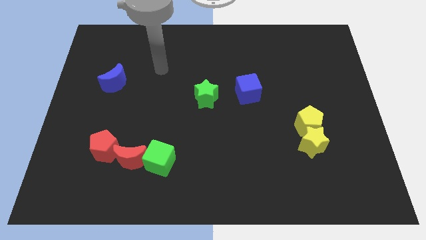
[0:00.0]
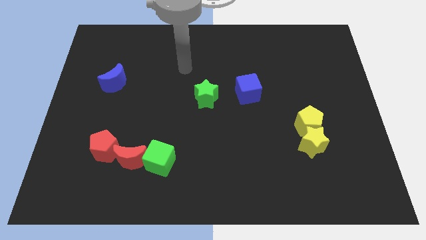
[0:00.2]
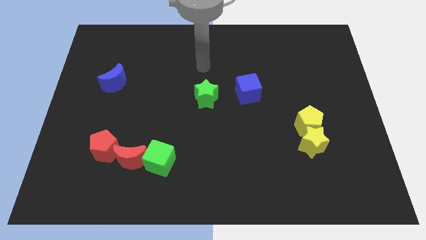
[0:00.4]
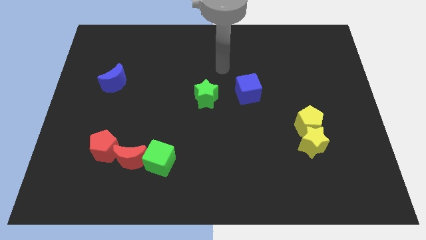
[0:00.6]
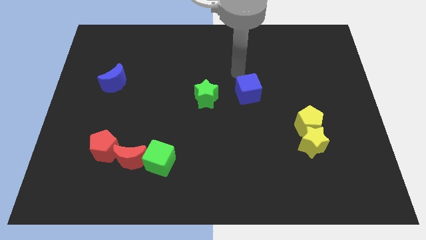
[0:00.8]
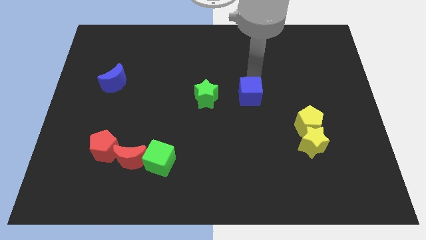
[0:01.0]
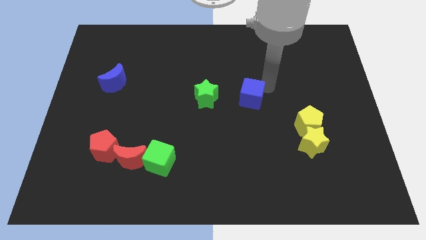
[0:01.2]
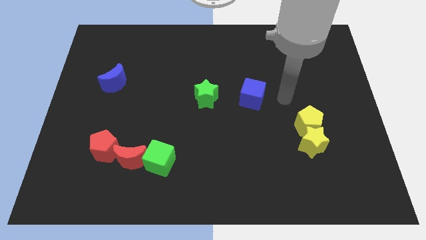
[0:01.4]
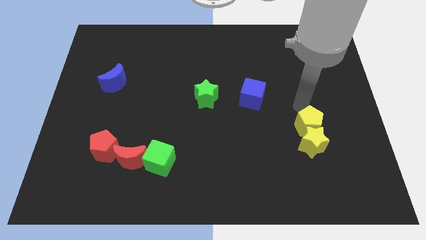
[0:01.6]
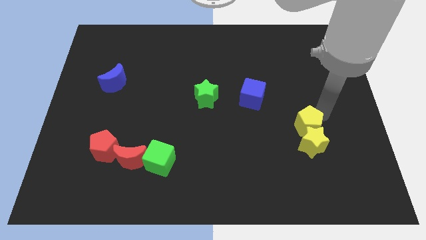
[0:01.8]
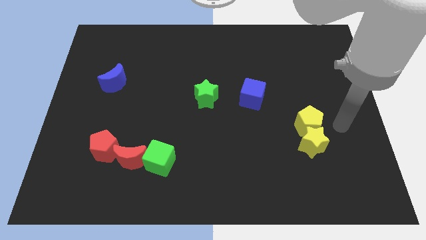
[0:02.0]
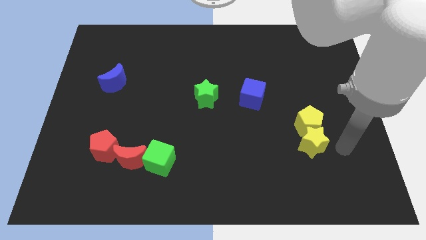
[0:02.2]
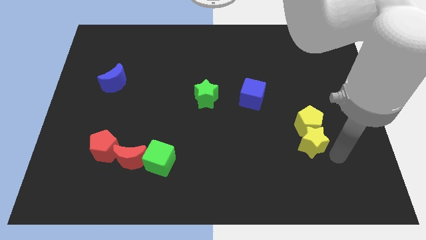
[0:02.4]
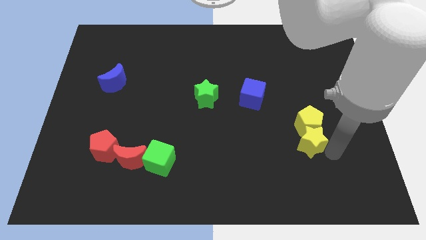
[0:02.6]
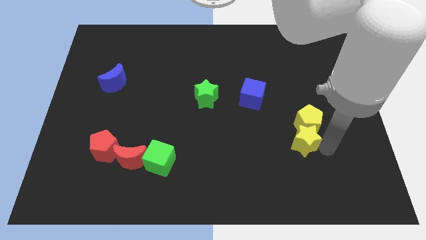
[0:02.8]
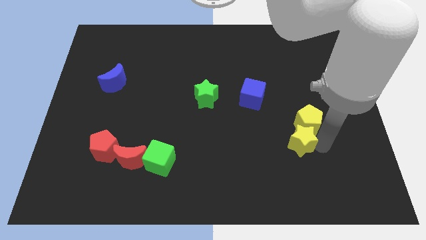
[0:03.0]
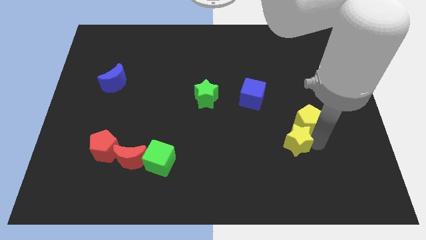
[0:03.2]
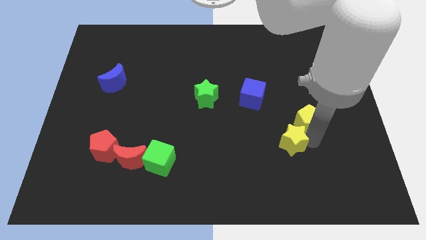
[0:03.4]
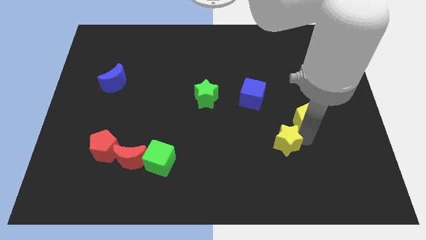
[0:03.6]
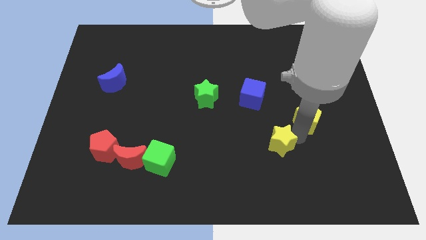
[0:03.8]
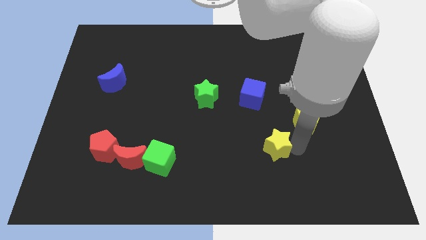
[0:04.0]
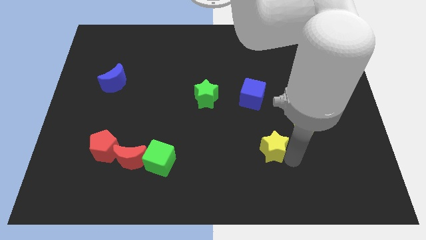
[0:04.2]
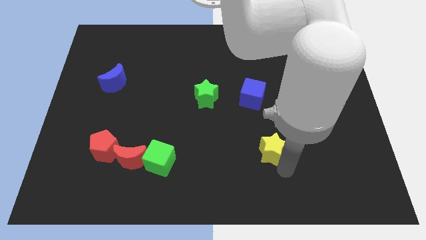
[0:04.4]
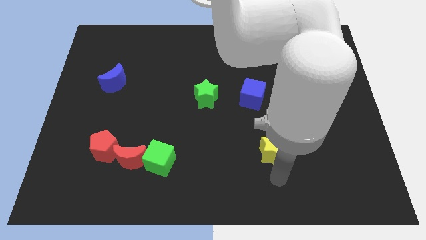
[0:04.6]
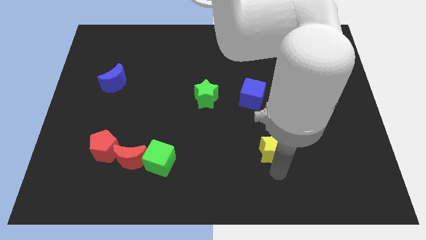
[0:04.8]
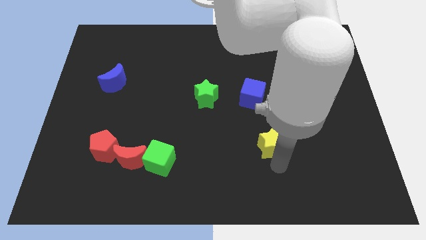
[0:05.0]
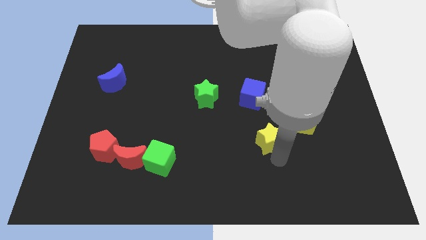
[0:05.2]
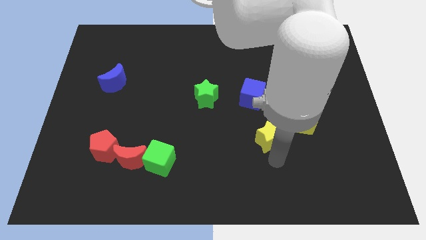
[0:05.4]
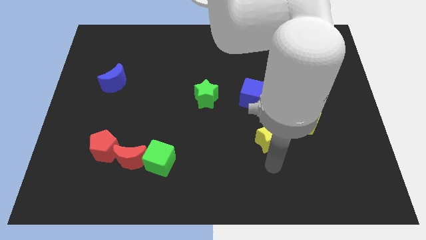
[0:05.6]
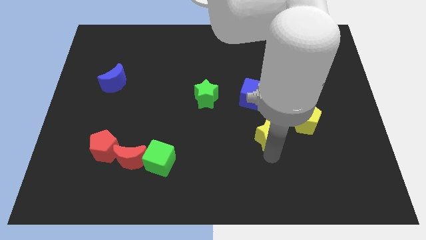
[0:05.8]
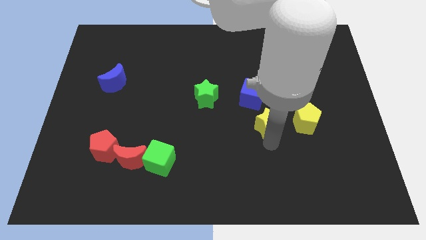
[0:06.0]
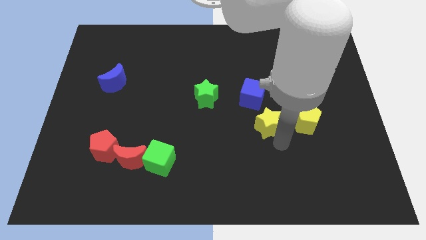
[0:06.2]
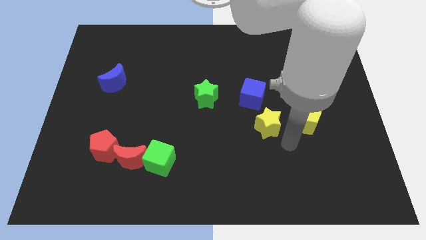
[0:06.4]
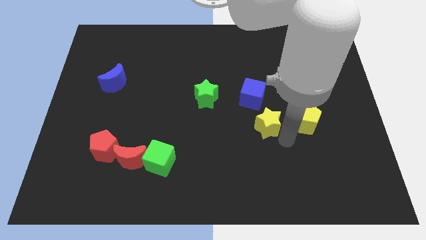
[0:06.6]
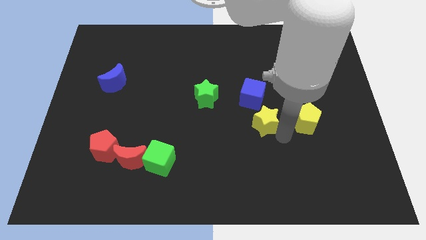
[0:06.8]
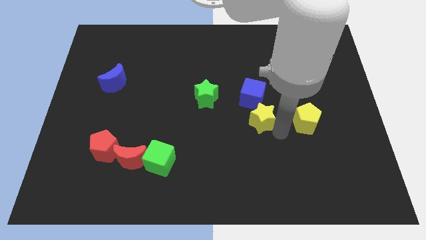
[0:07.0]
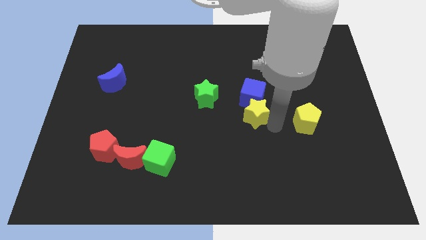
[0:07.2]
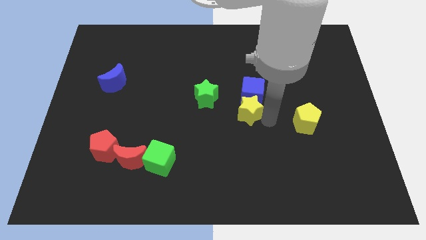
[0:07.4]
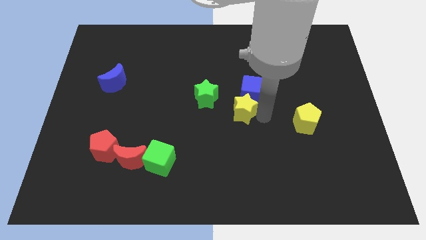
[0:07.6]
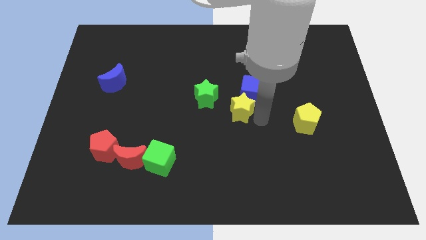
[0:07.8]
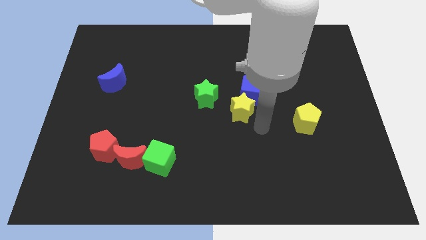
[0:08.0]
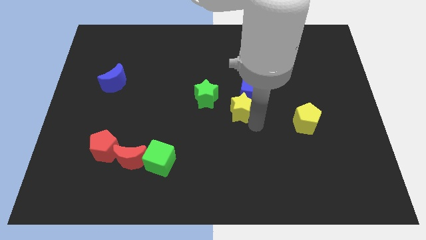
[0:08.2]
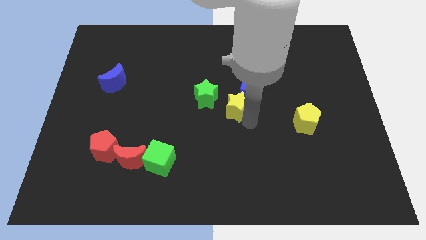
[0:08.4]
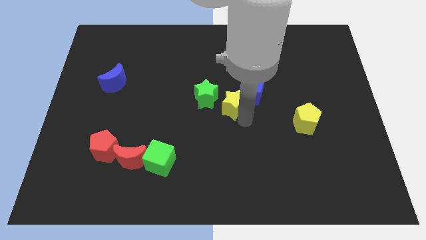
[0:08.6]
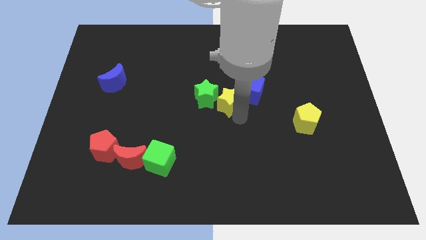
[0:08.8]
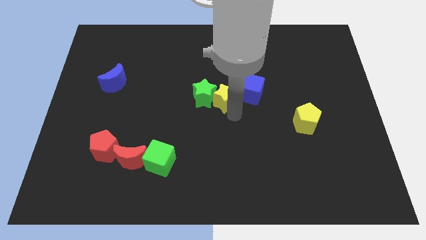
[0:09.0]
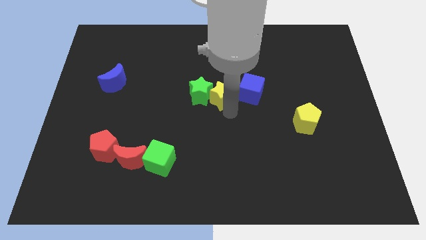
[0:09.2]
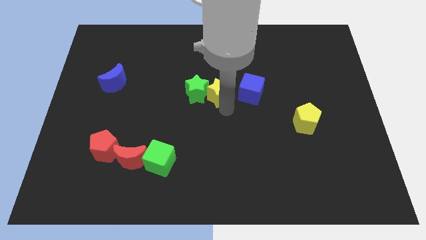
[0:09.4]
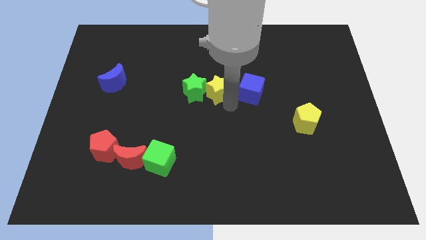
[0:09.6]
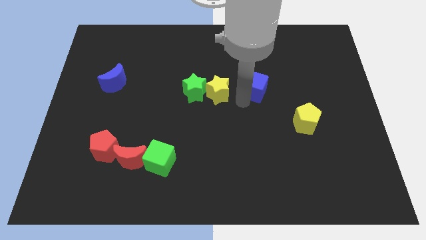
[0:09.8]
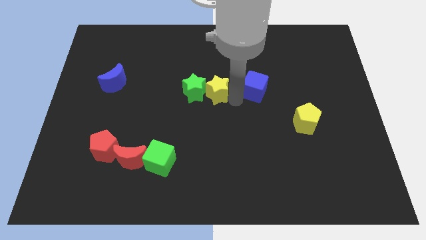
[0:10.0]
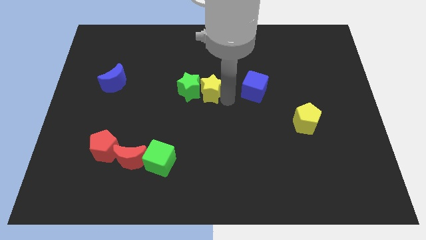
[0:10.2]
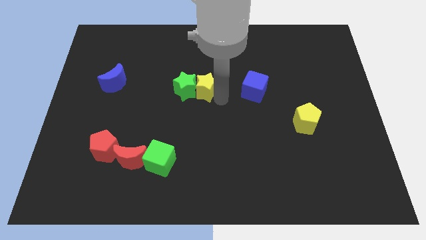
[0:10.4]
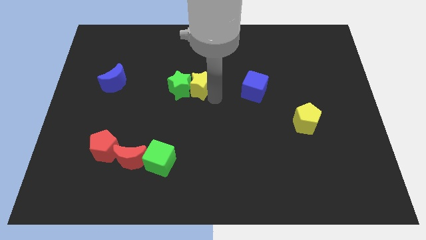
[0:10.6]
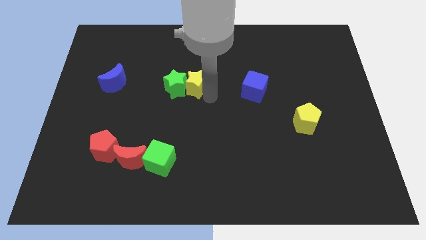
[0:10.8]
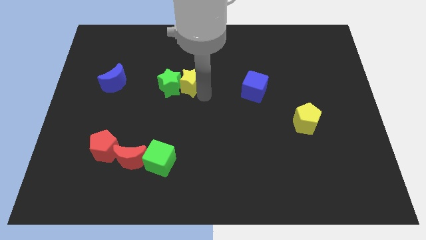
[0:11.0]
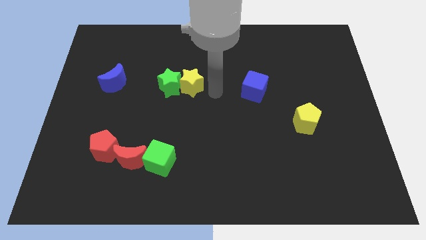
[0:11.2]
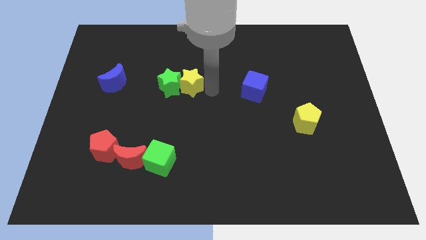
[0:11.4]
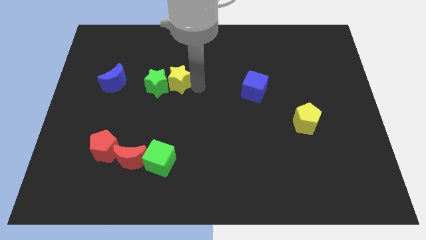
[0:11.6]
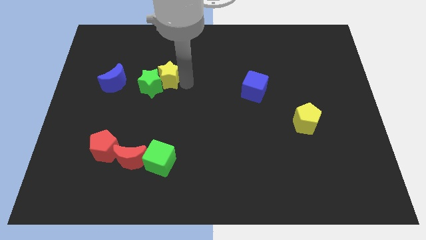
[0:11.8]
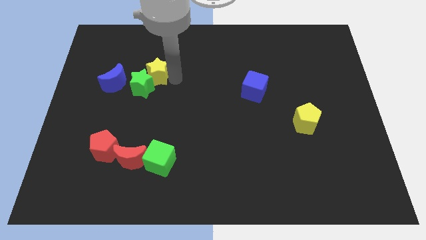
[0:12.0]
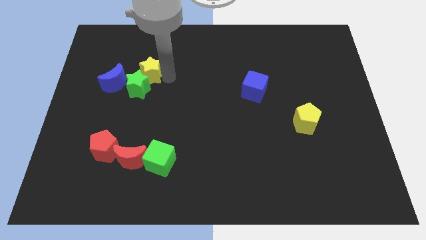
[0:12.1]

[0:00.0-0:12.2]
move the yellow star to the top right side of the blue moon

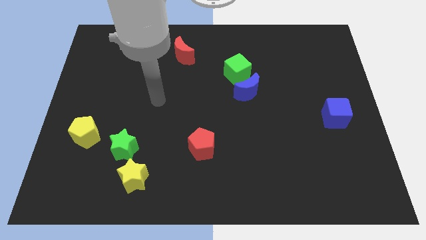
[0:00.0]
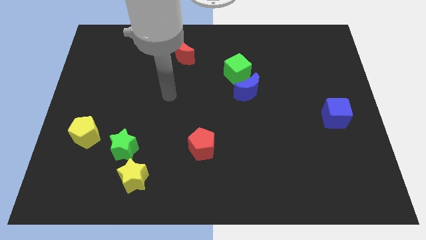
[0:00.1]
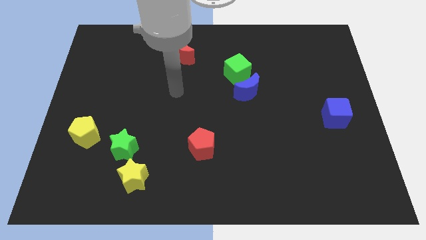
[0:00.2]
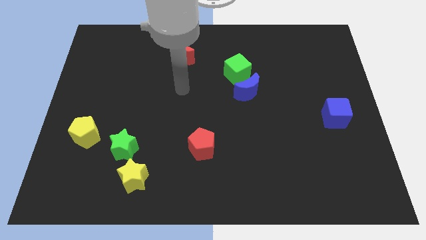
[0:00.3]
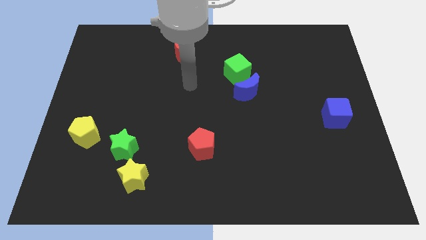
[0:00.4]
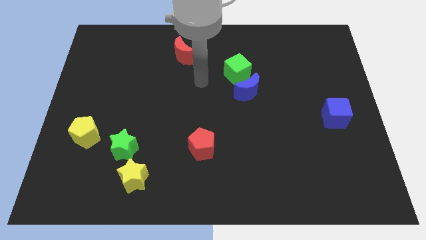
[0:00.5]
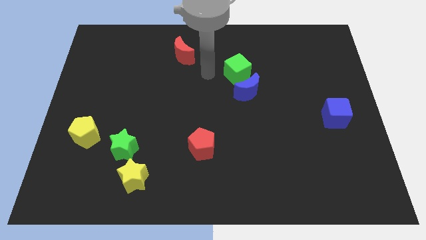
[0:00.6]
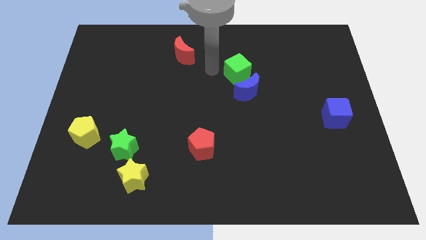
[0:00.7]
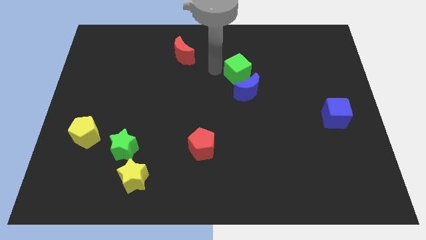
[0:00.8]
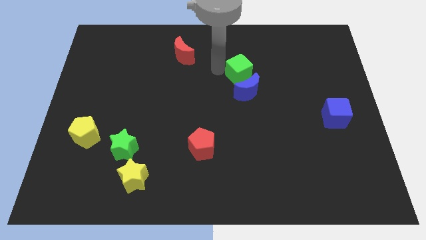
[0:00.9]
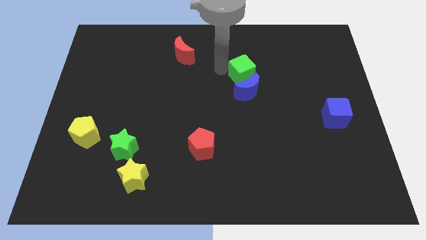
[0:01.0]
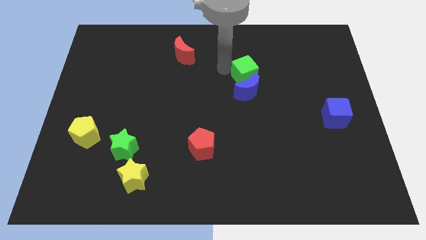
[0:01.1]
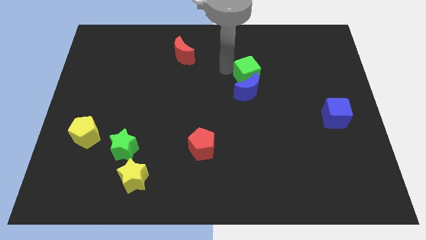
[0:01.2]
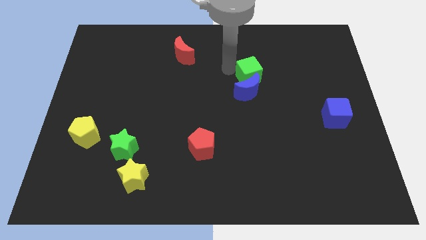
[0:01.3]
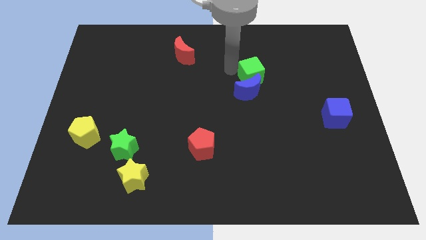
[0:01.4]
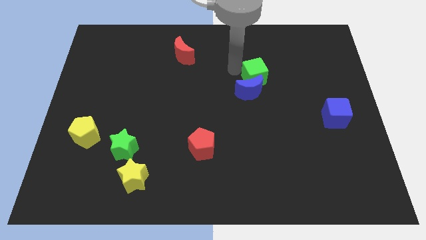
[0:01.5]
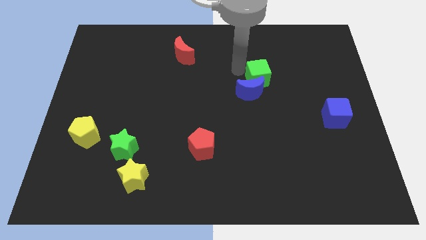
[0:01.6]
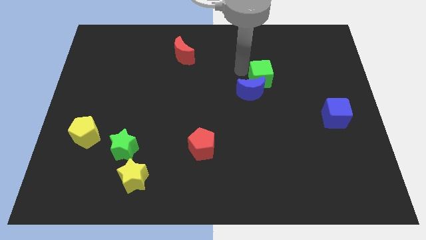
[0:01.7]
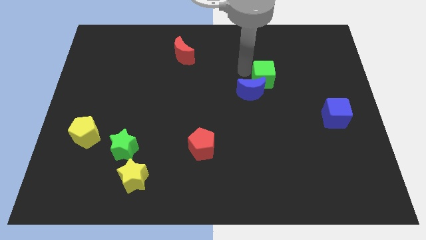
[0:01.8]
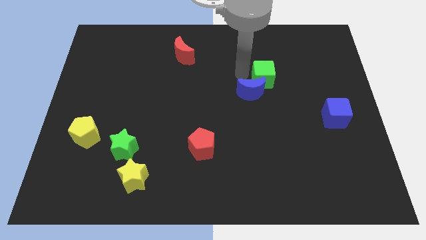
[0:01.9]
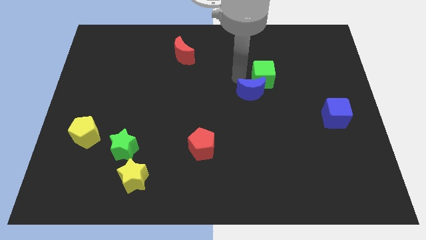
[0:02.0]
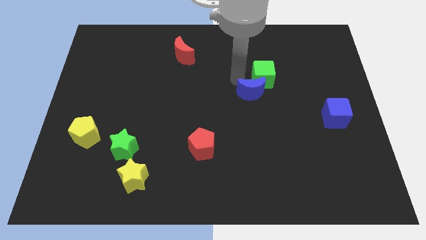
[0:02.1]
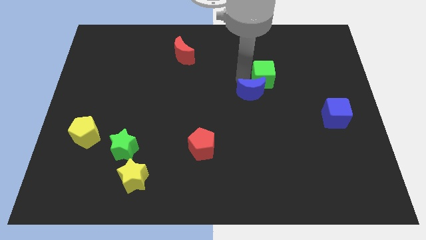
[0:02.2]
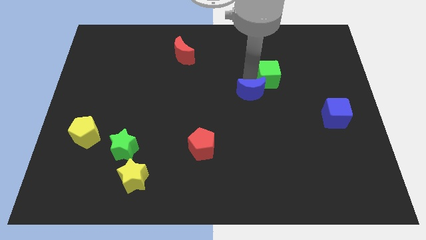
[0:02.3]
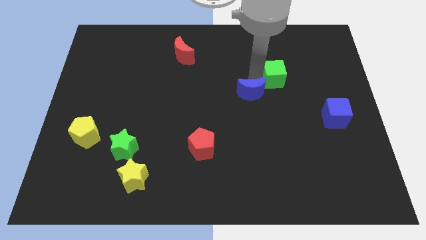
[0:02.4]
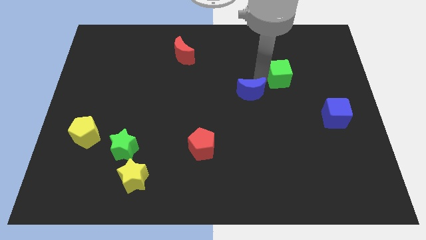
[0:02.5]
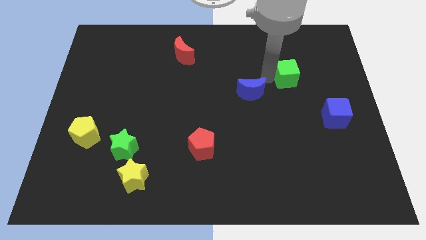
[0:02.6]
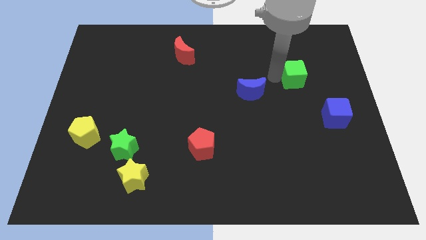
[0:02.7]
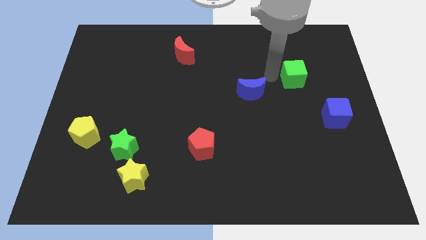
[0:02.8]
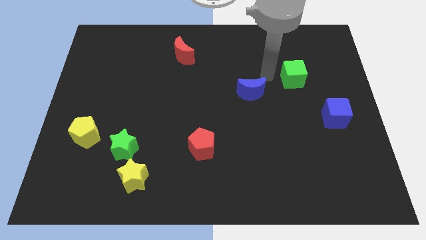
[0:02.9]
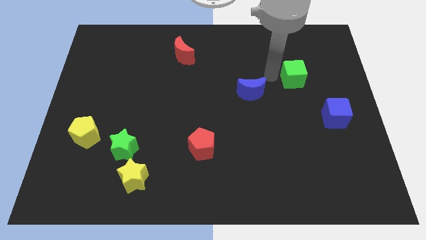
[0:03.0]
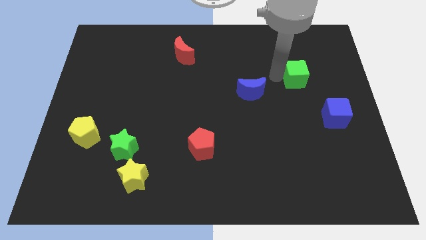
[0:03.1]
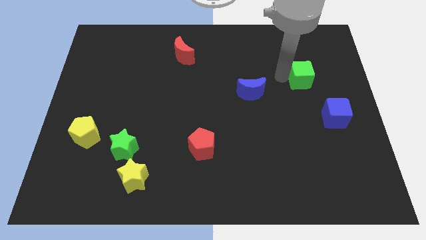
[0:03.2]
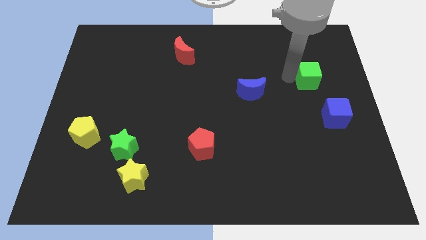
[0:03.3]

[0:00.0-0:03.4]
move the green cube above the blue cube
